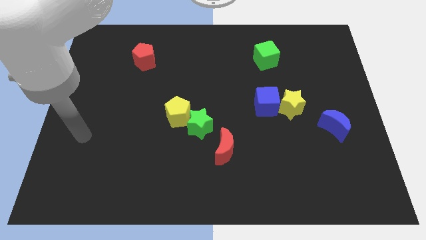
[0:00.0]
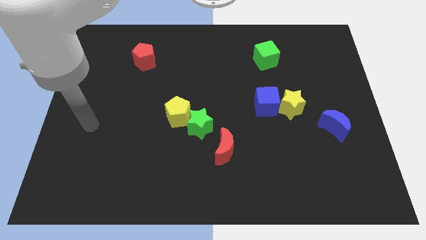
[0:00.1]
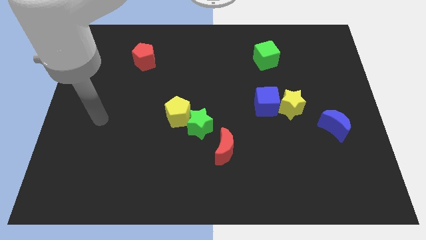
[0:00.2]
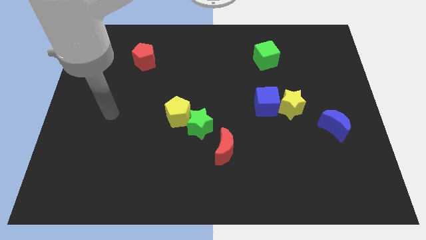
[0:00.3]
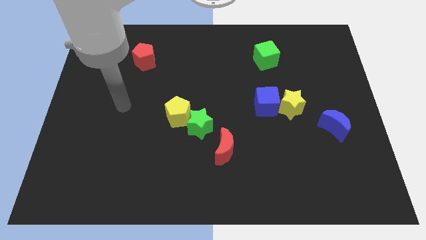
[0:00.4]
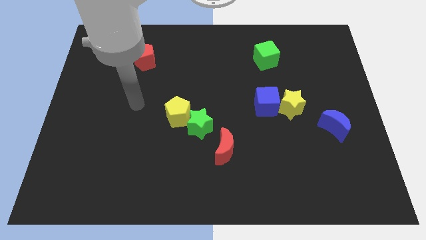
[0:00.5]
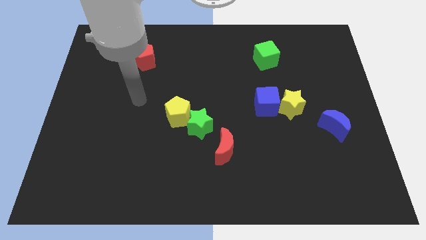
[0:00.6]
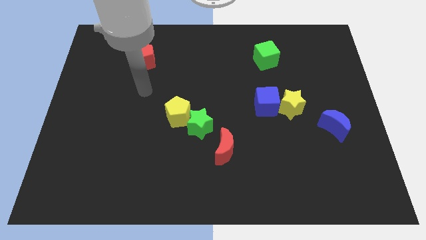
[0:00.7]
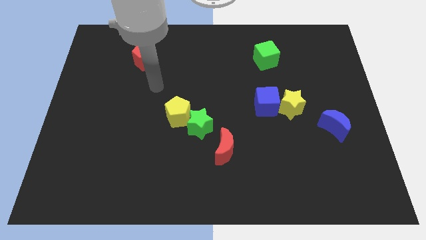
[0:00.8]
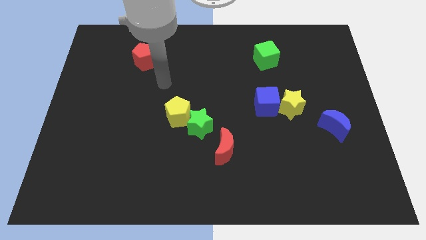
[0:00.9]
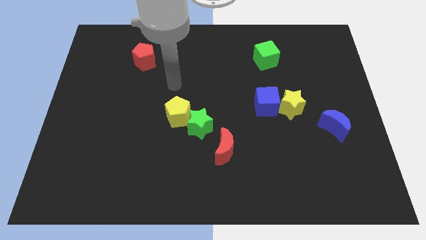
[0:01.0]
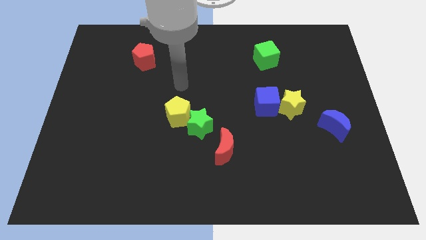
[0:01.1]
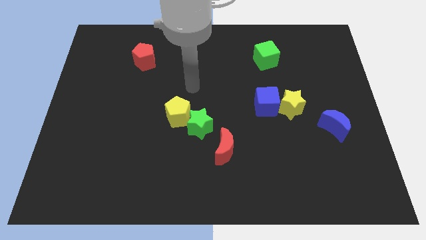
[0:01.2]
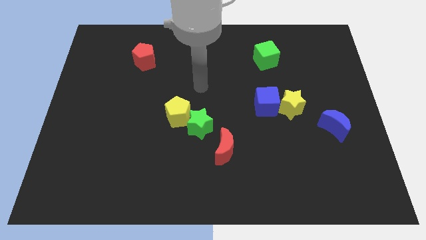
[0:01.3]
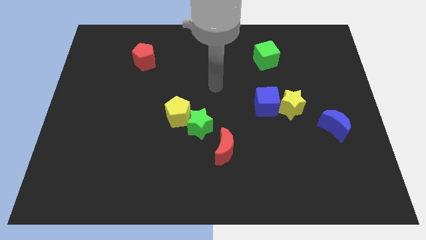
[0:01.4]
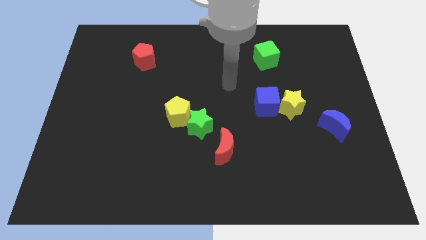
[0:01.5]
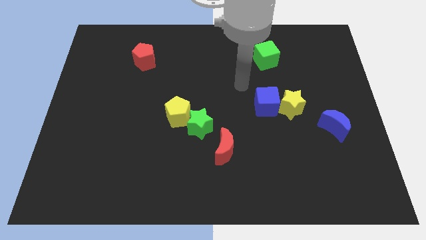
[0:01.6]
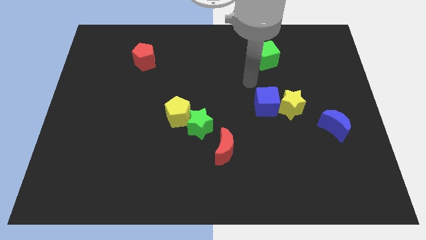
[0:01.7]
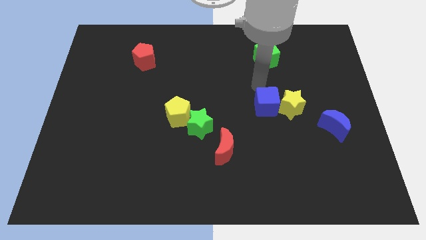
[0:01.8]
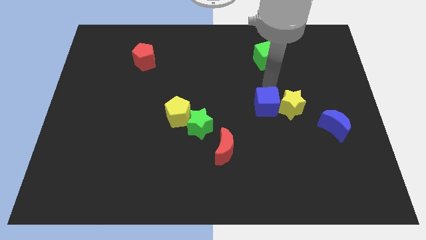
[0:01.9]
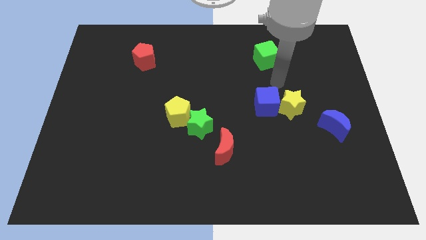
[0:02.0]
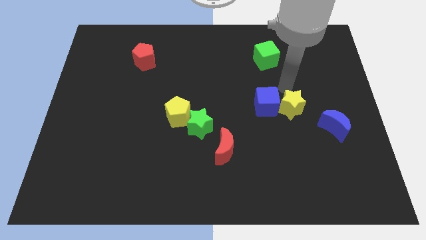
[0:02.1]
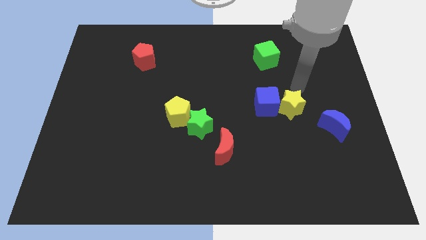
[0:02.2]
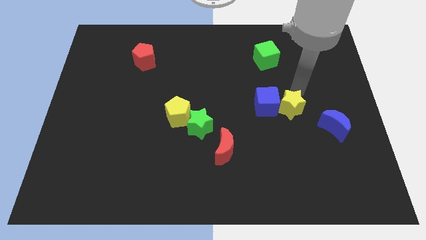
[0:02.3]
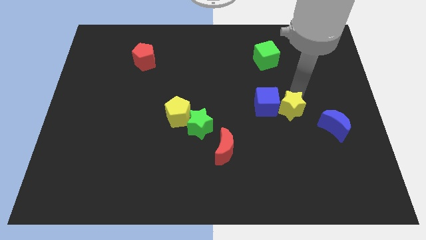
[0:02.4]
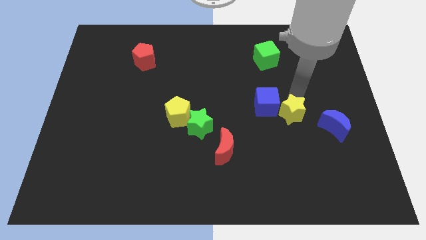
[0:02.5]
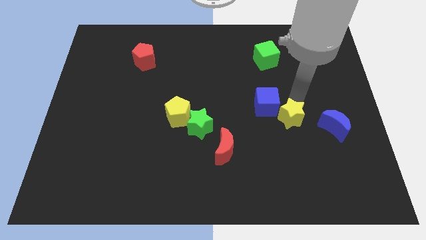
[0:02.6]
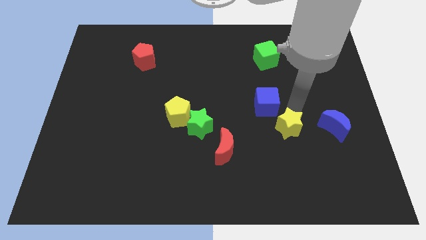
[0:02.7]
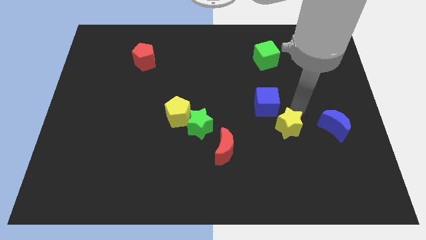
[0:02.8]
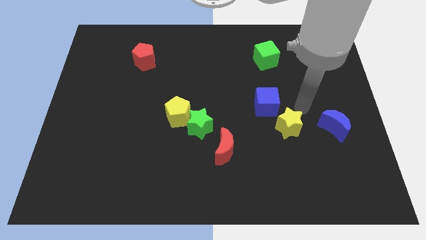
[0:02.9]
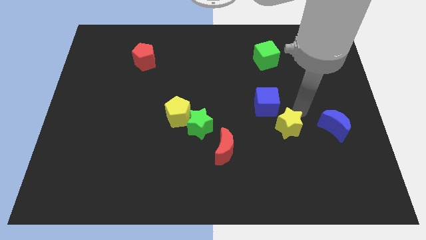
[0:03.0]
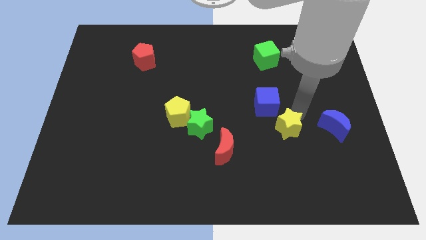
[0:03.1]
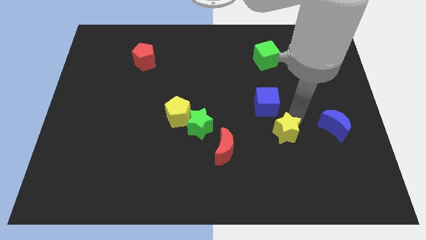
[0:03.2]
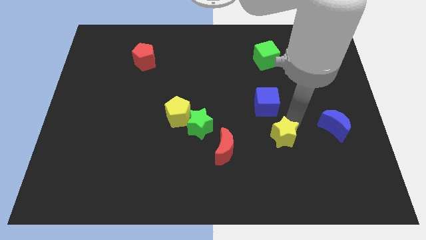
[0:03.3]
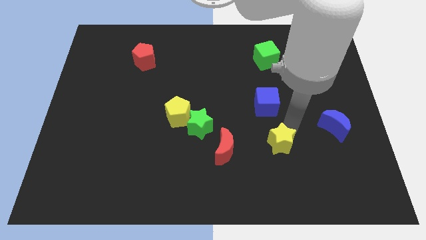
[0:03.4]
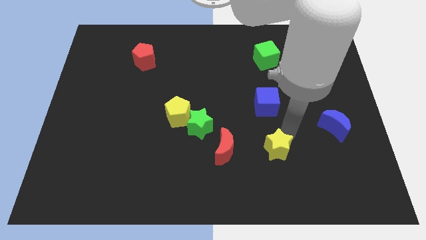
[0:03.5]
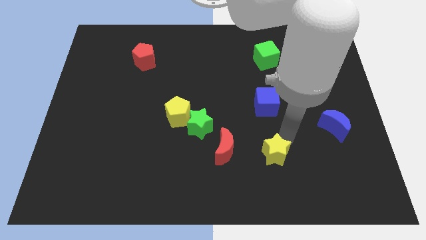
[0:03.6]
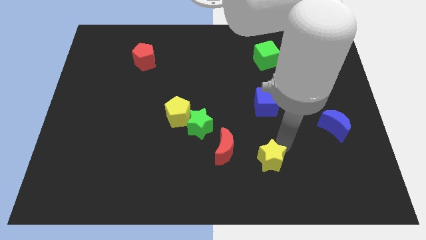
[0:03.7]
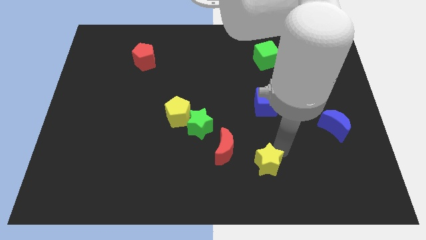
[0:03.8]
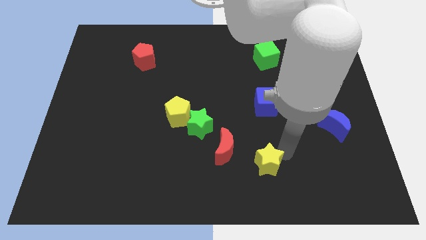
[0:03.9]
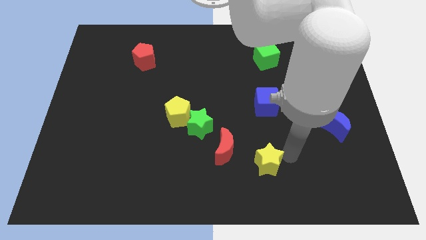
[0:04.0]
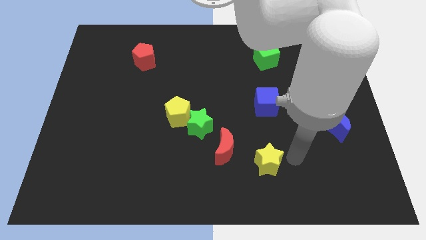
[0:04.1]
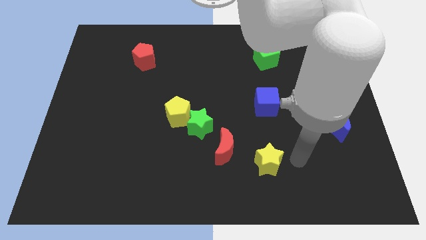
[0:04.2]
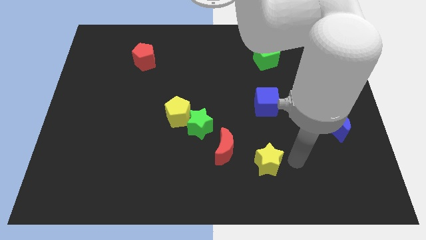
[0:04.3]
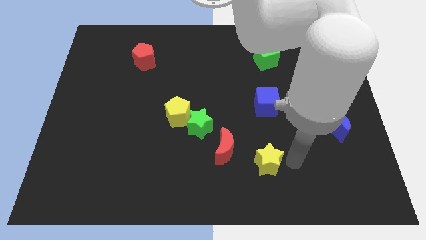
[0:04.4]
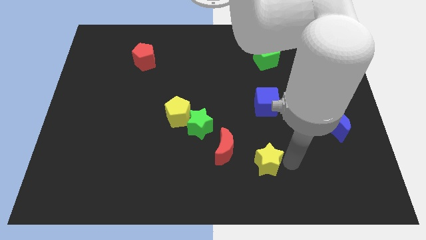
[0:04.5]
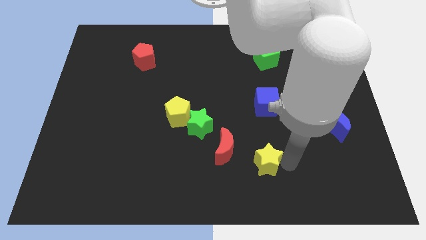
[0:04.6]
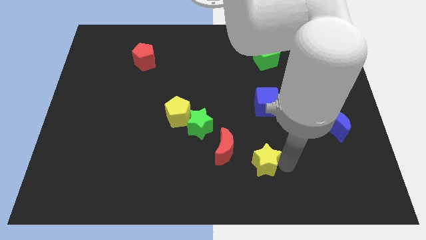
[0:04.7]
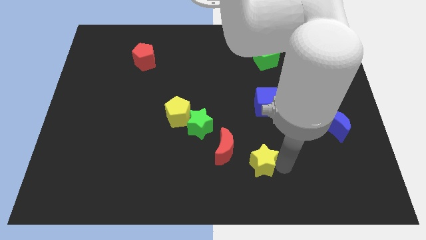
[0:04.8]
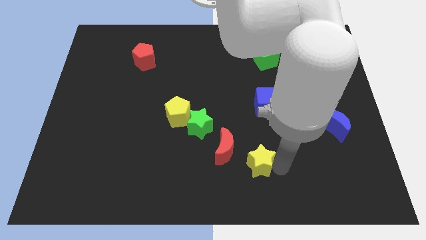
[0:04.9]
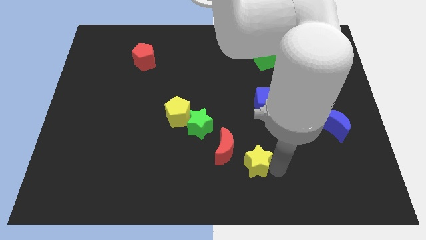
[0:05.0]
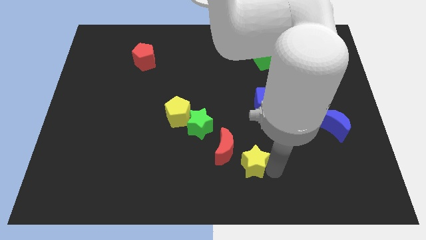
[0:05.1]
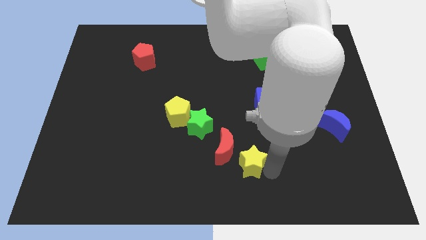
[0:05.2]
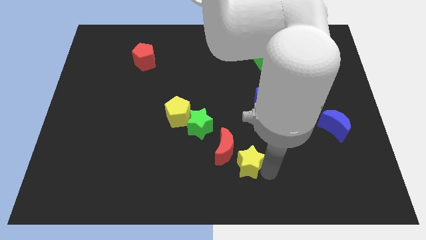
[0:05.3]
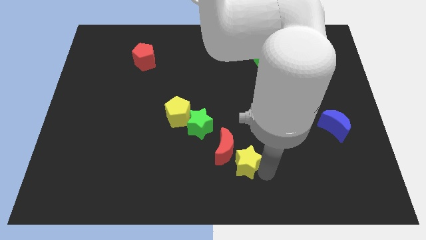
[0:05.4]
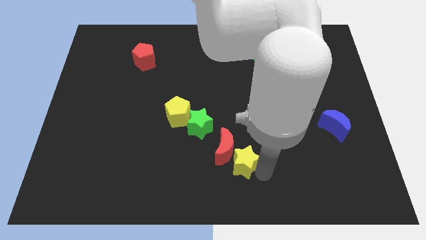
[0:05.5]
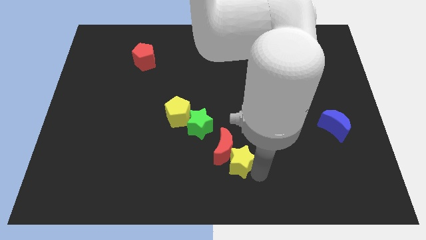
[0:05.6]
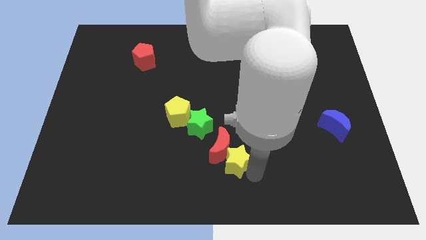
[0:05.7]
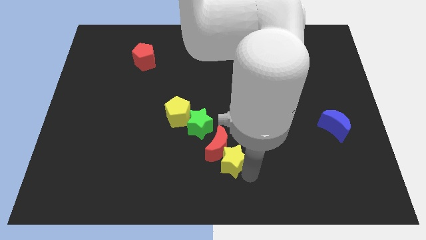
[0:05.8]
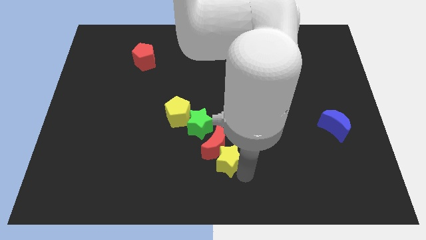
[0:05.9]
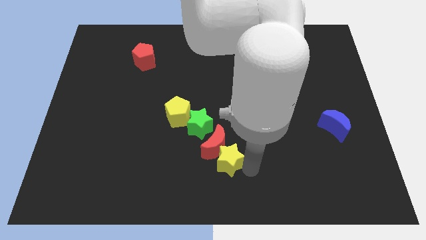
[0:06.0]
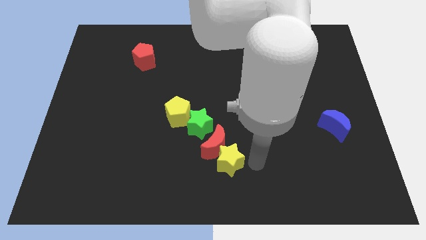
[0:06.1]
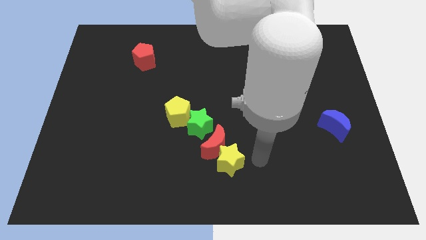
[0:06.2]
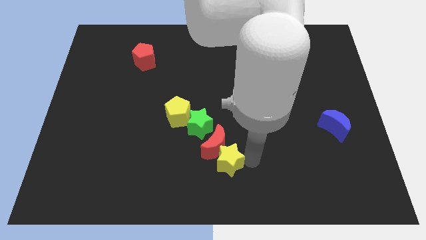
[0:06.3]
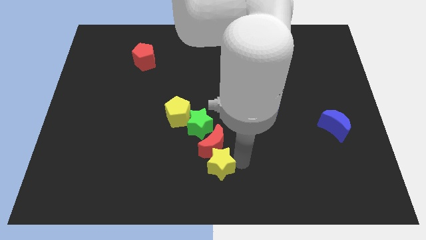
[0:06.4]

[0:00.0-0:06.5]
slide the yellow star to the bottom left of the red moon
